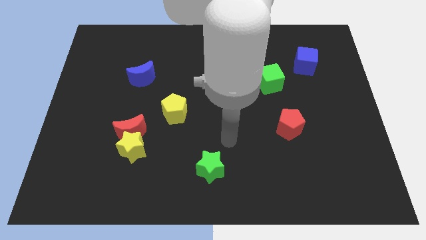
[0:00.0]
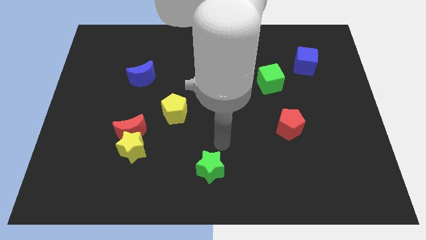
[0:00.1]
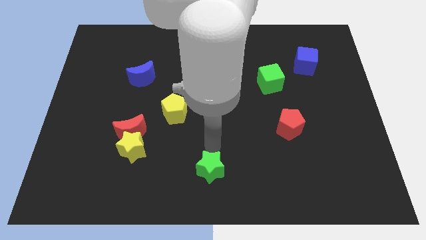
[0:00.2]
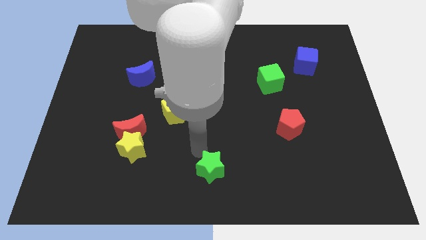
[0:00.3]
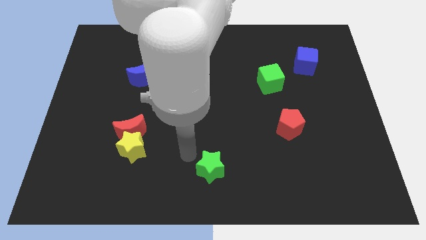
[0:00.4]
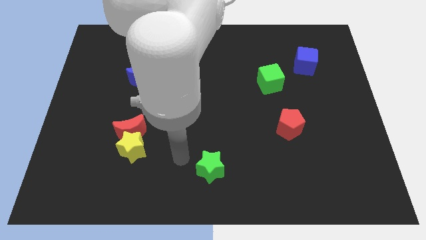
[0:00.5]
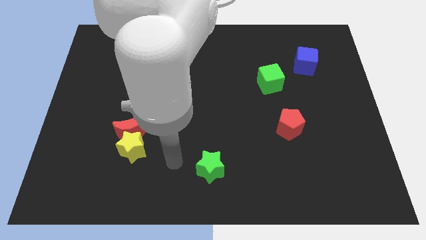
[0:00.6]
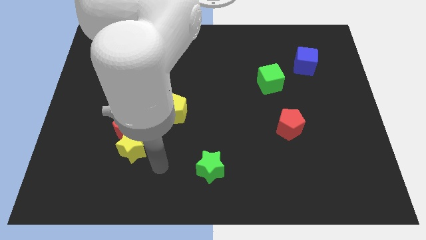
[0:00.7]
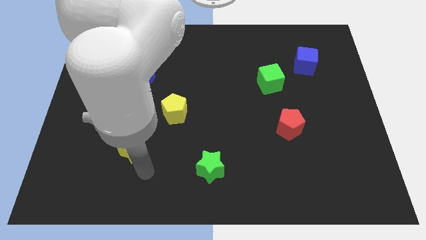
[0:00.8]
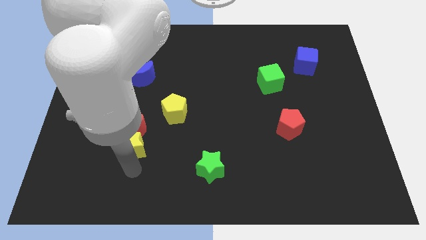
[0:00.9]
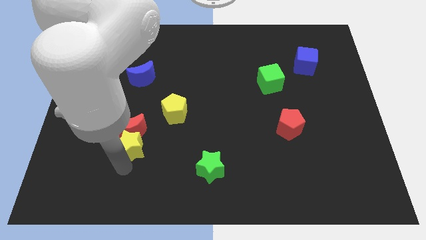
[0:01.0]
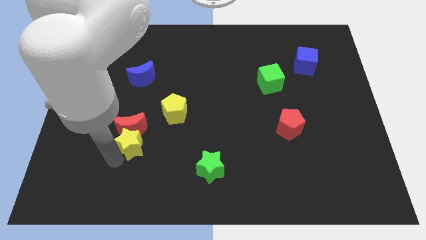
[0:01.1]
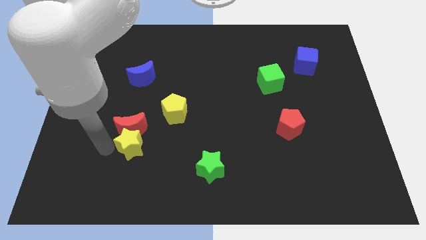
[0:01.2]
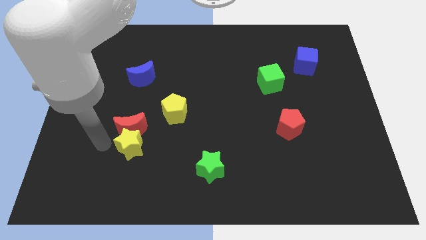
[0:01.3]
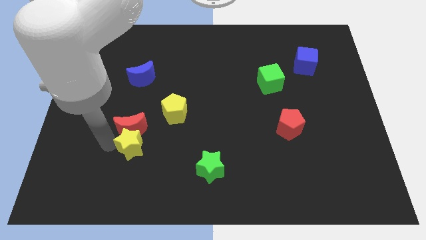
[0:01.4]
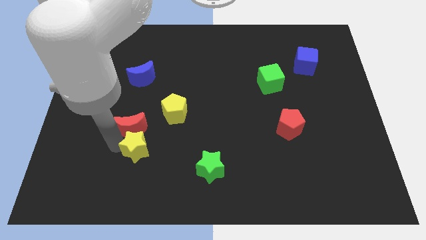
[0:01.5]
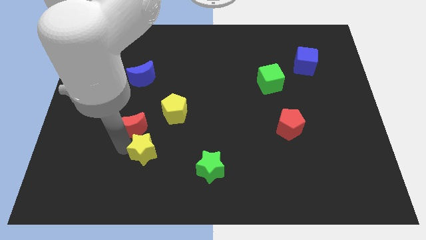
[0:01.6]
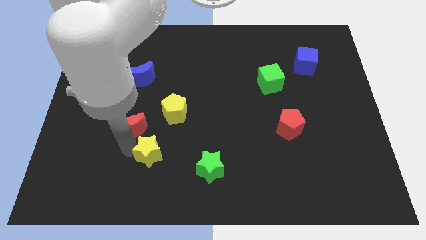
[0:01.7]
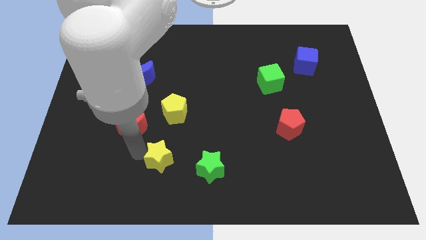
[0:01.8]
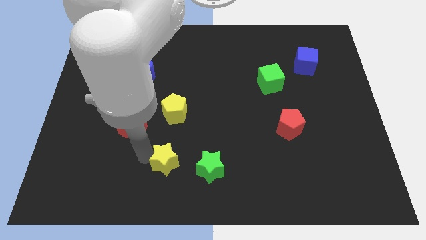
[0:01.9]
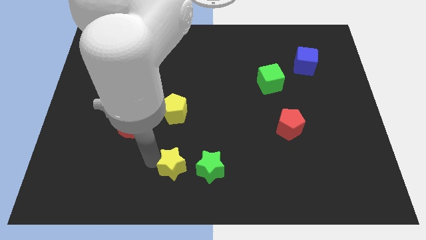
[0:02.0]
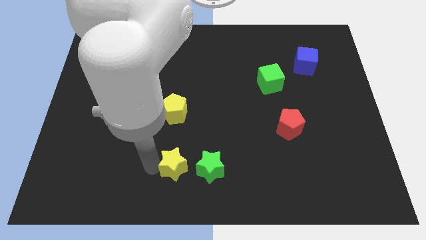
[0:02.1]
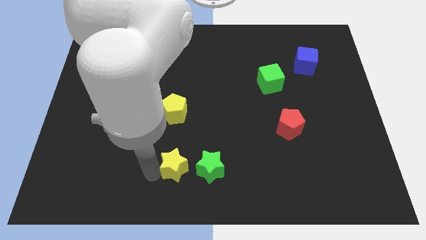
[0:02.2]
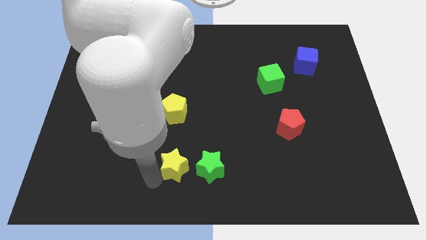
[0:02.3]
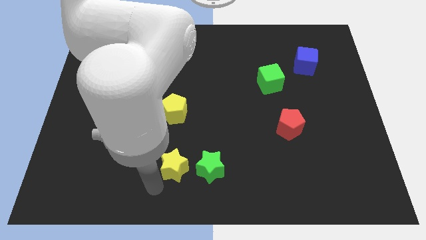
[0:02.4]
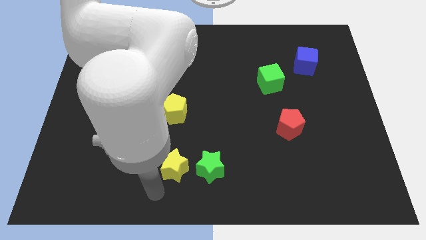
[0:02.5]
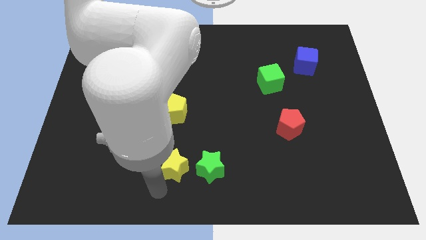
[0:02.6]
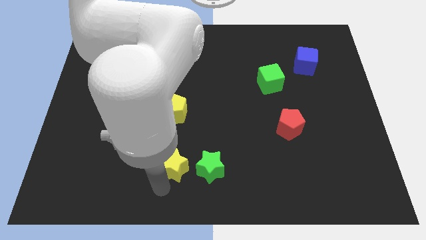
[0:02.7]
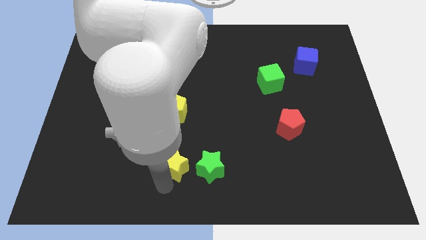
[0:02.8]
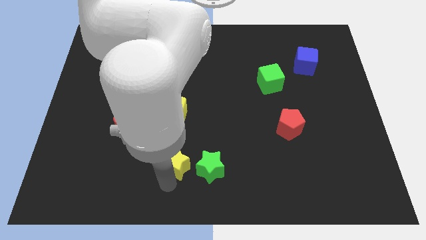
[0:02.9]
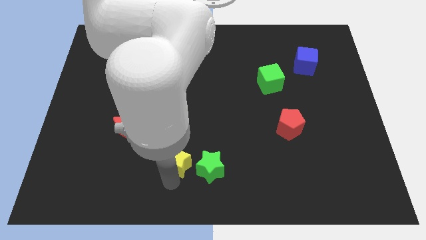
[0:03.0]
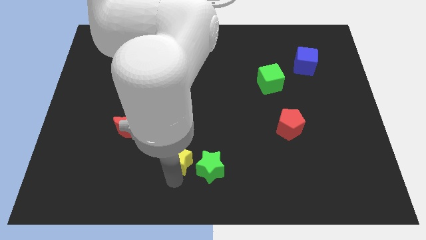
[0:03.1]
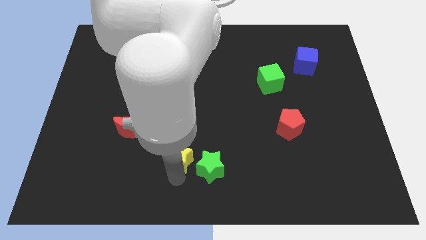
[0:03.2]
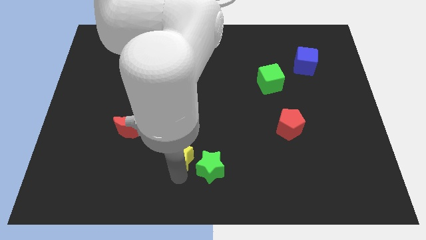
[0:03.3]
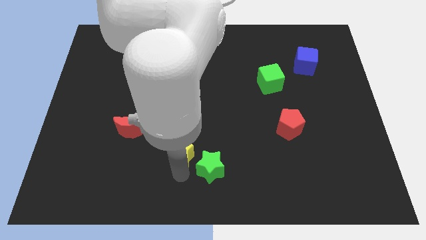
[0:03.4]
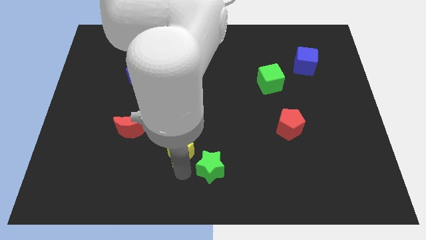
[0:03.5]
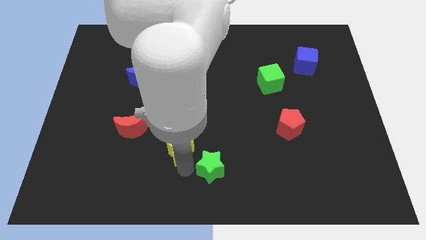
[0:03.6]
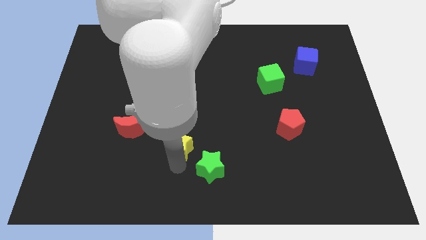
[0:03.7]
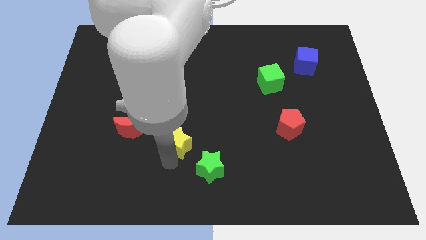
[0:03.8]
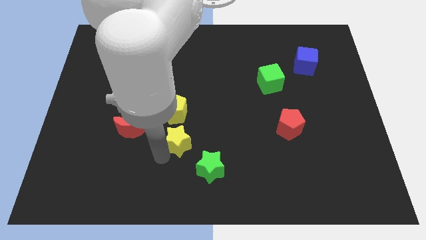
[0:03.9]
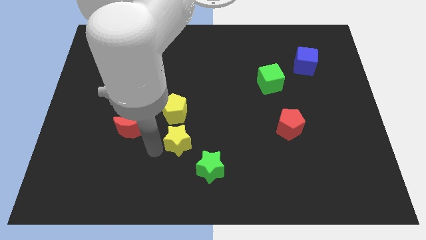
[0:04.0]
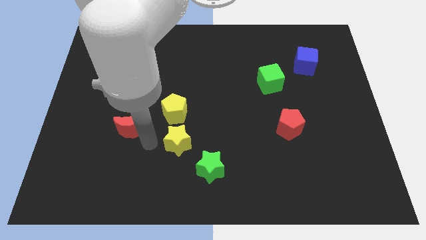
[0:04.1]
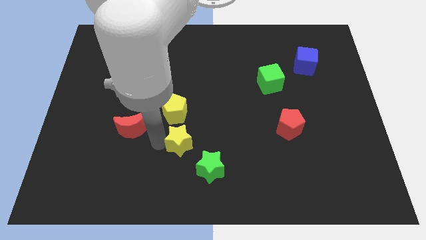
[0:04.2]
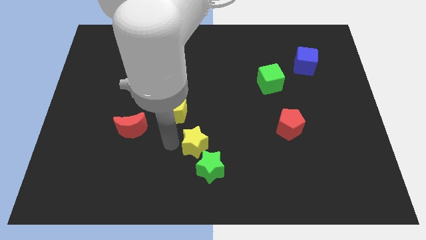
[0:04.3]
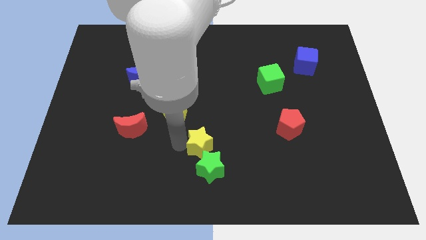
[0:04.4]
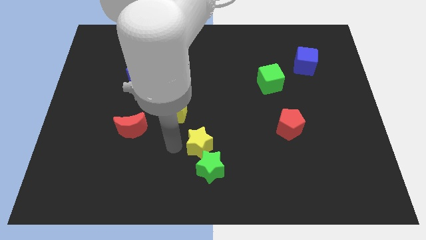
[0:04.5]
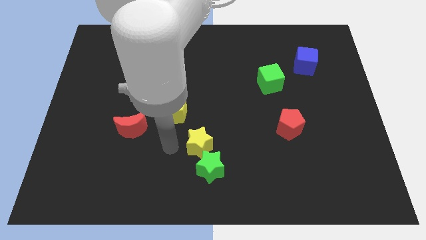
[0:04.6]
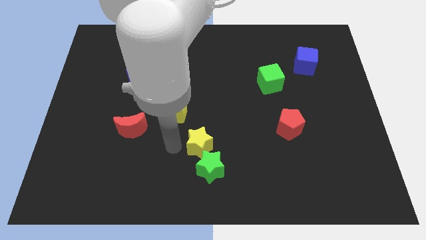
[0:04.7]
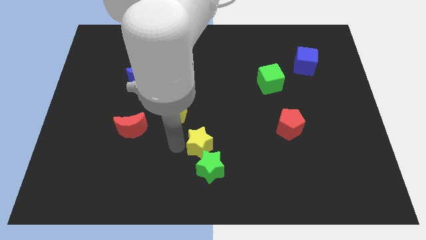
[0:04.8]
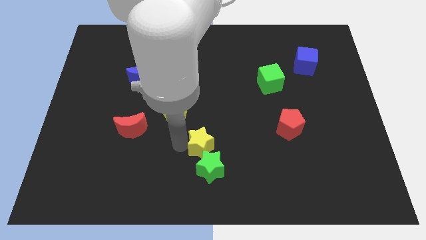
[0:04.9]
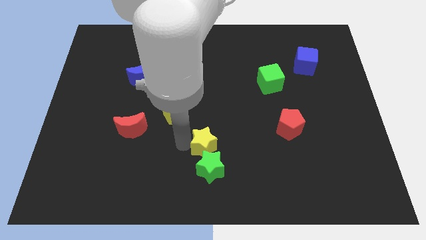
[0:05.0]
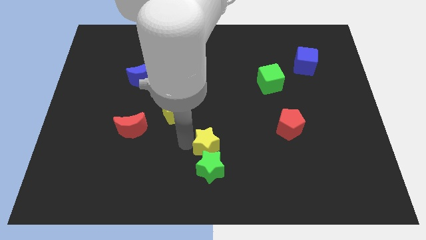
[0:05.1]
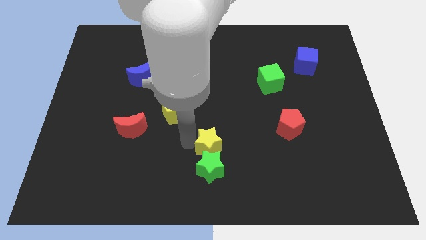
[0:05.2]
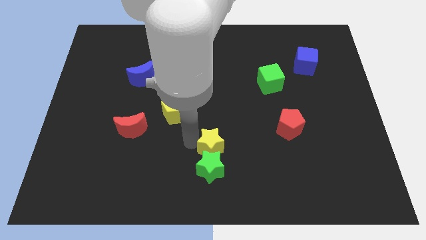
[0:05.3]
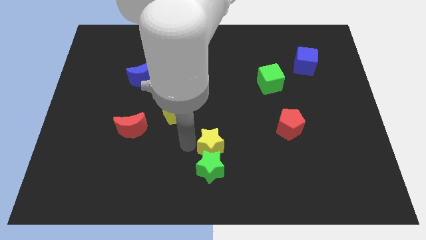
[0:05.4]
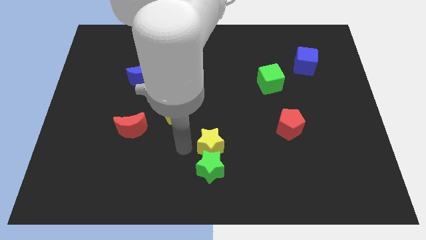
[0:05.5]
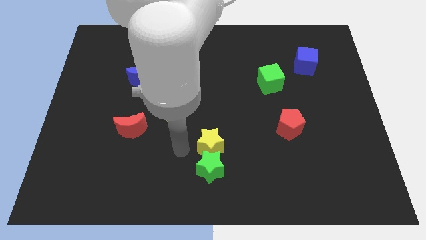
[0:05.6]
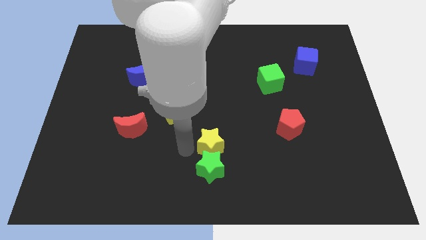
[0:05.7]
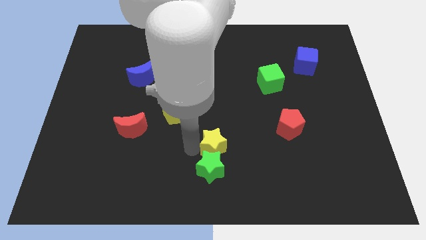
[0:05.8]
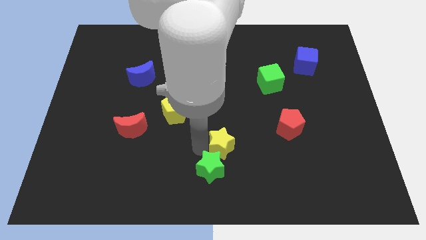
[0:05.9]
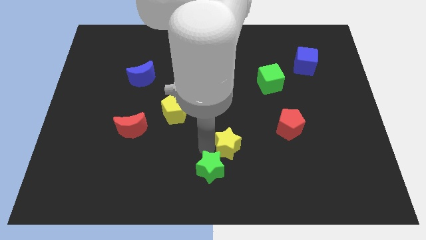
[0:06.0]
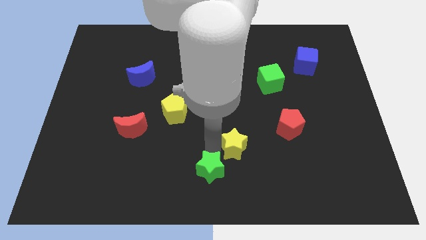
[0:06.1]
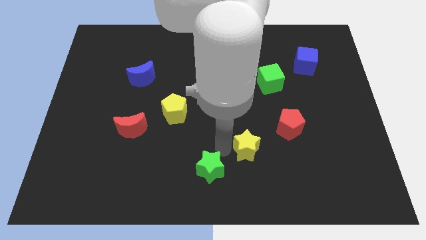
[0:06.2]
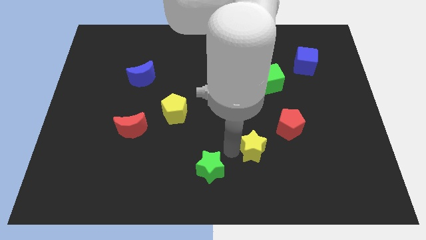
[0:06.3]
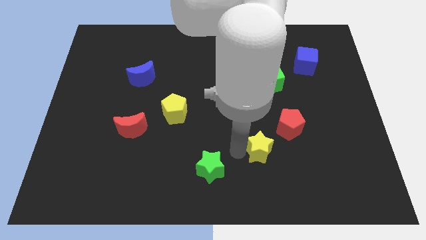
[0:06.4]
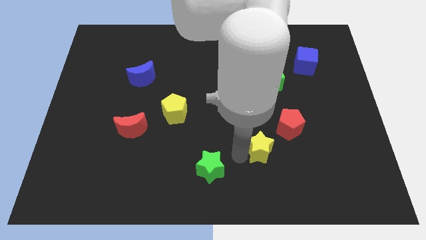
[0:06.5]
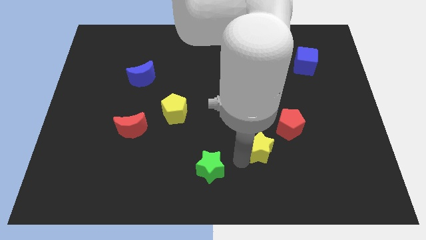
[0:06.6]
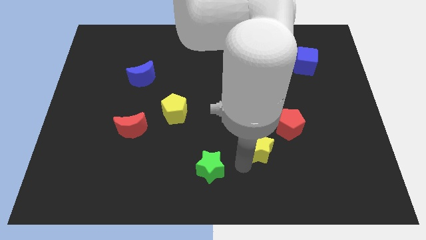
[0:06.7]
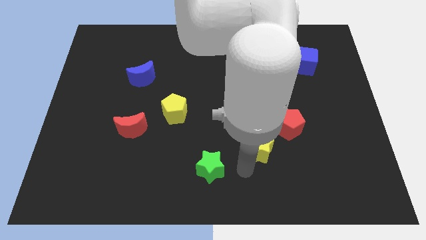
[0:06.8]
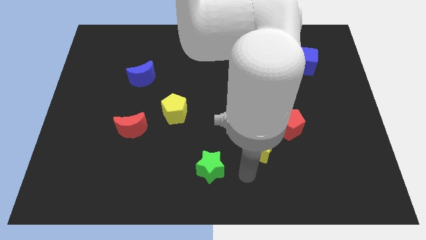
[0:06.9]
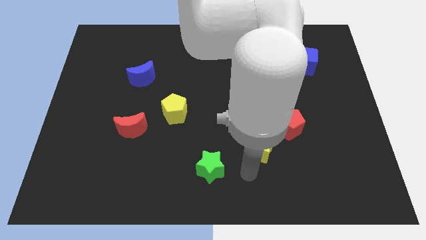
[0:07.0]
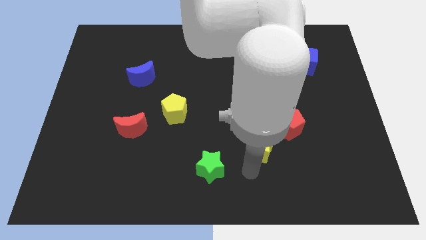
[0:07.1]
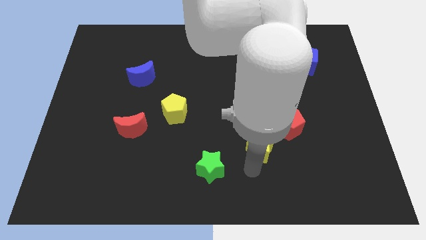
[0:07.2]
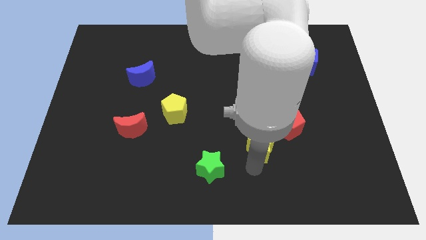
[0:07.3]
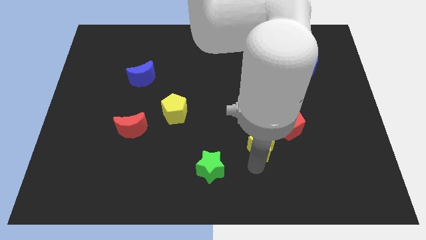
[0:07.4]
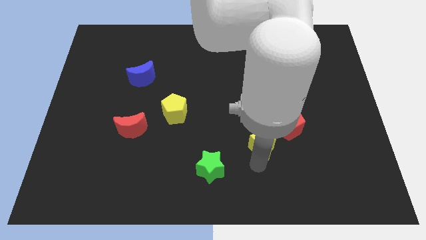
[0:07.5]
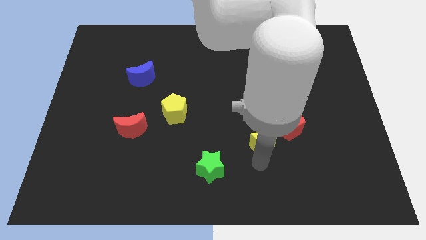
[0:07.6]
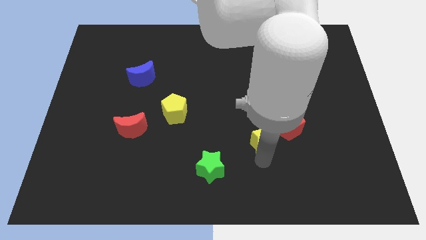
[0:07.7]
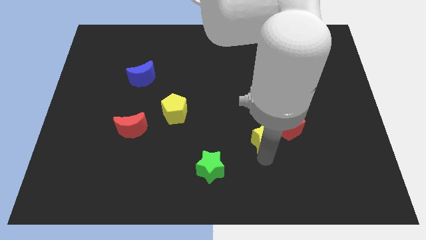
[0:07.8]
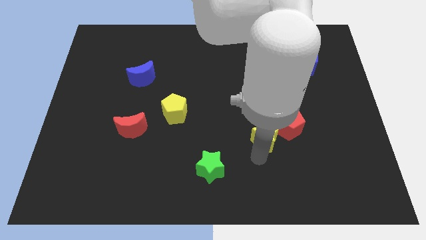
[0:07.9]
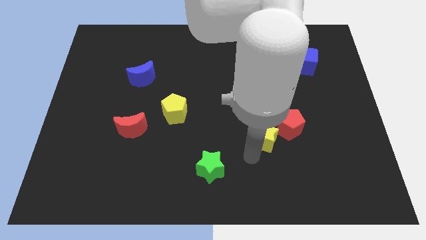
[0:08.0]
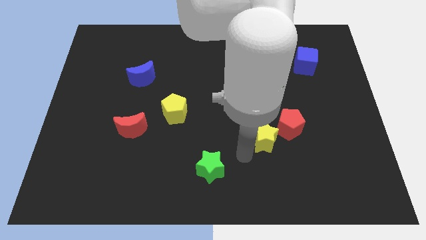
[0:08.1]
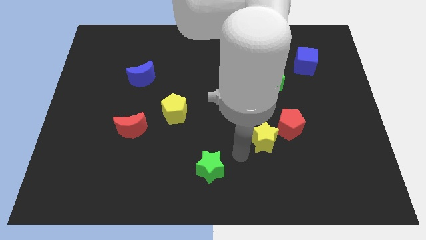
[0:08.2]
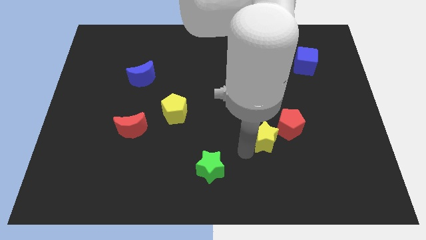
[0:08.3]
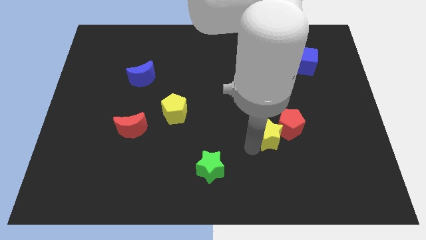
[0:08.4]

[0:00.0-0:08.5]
push the yellow star towards the red pentagon
